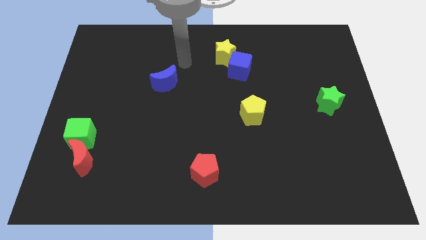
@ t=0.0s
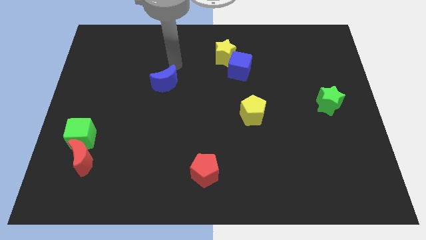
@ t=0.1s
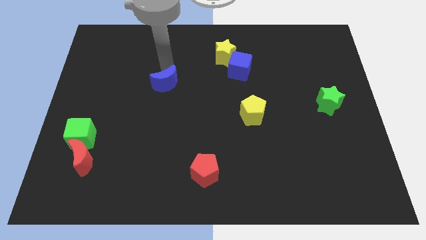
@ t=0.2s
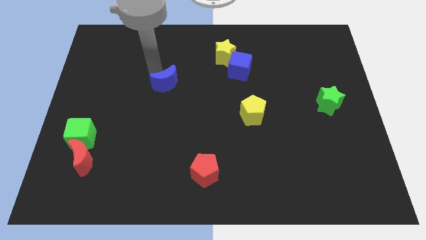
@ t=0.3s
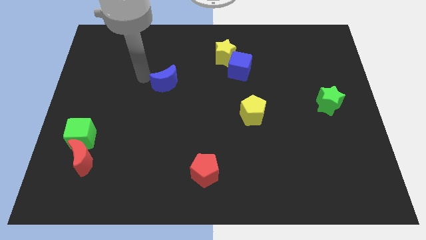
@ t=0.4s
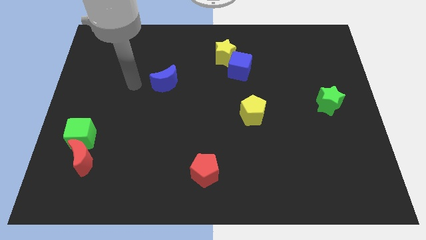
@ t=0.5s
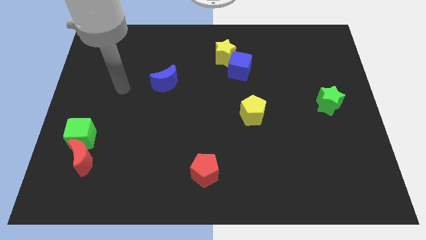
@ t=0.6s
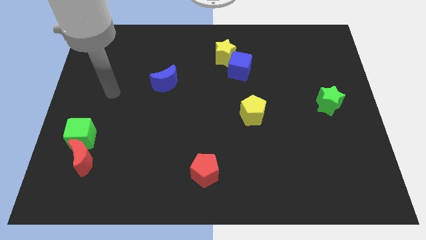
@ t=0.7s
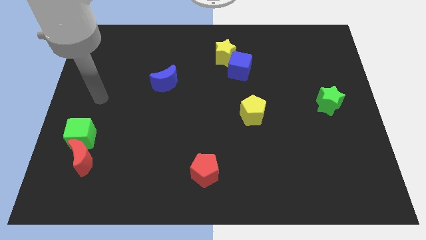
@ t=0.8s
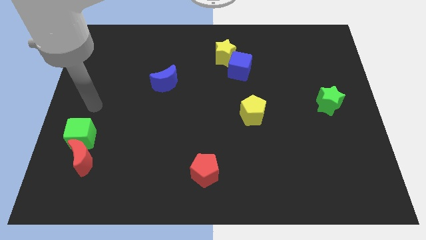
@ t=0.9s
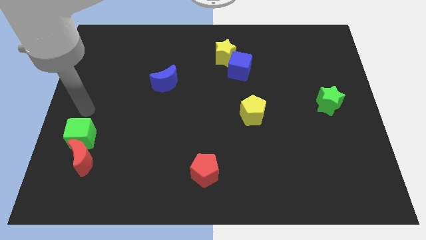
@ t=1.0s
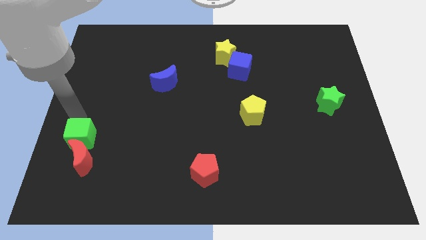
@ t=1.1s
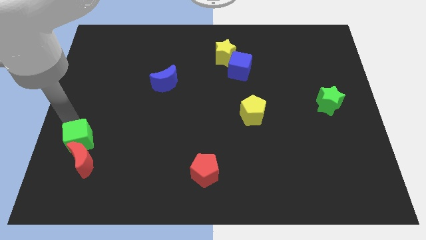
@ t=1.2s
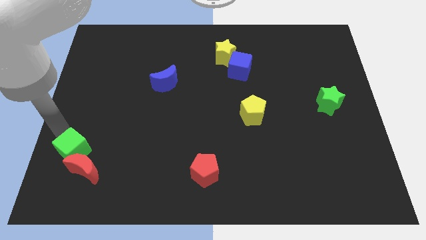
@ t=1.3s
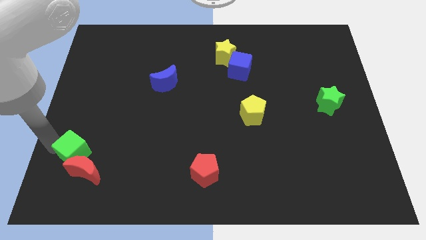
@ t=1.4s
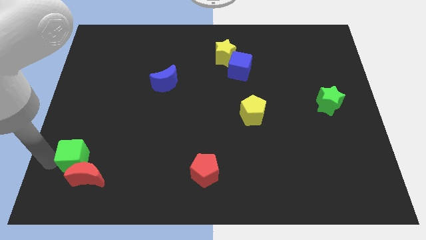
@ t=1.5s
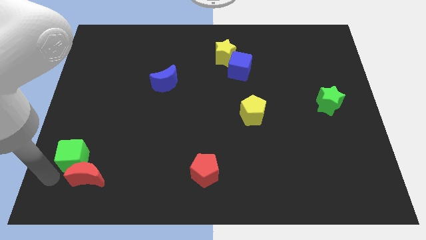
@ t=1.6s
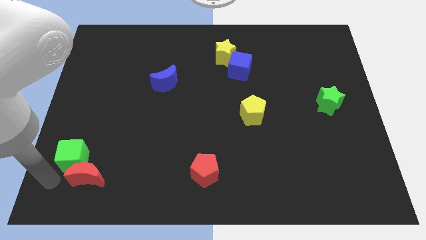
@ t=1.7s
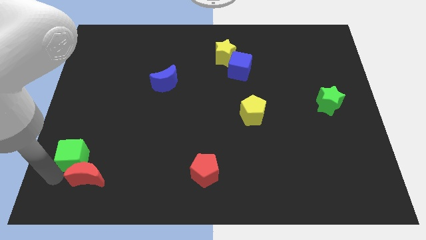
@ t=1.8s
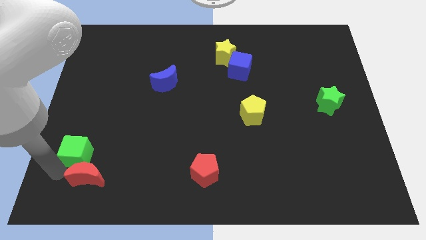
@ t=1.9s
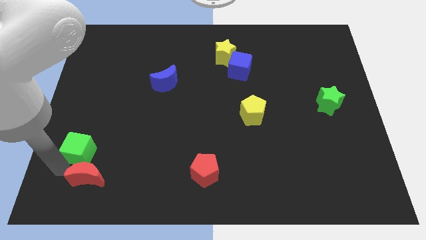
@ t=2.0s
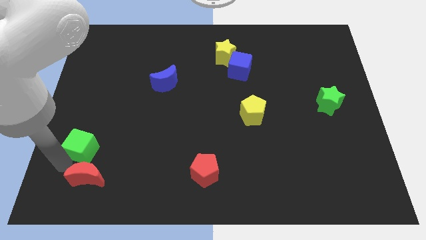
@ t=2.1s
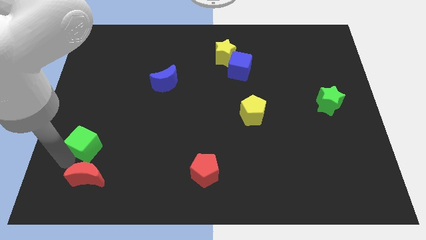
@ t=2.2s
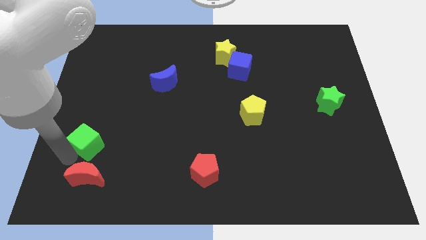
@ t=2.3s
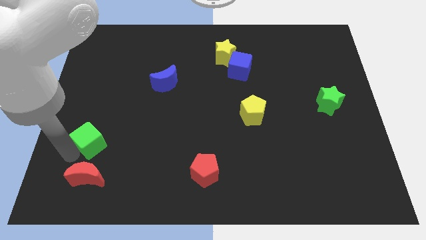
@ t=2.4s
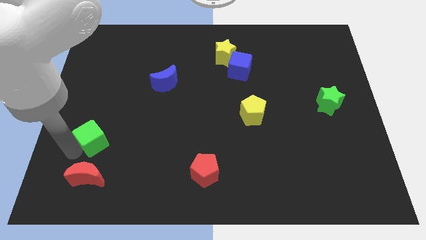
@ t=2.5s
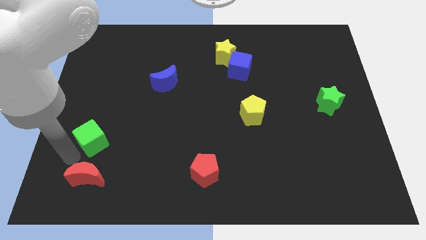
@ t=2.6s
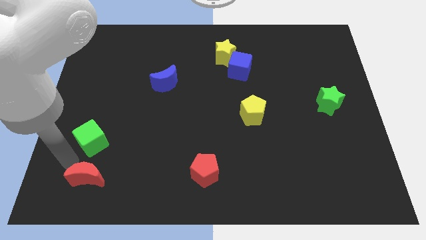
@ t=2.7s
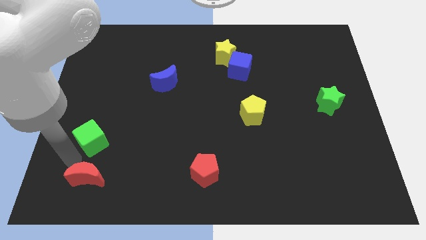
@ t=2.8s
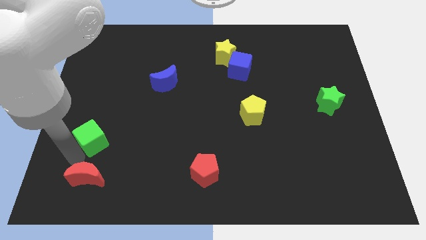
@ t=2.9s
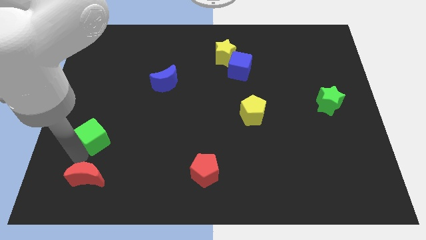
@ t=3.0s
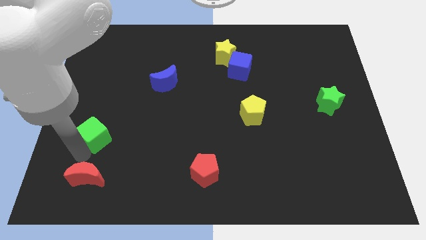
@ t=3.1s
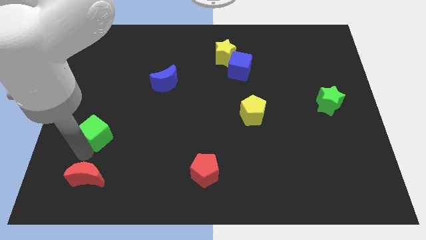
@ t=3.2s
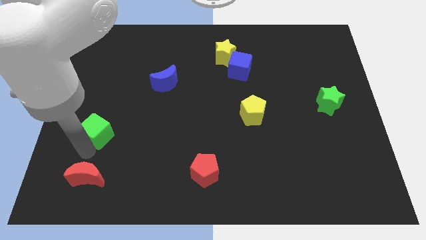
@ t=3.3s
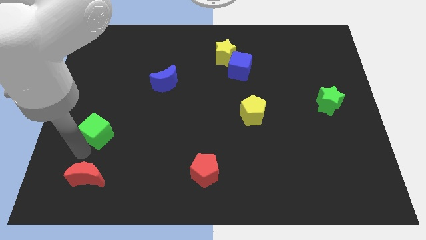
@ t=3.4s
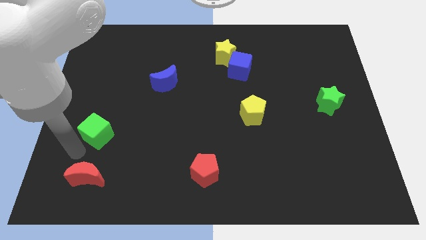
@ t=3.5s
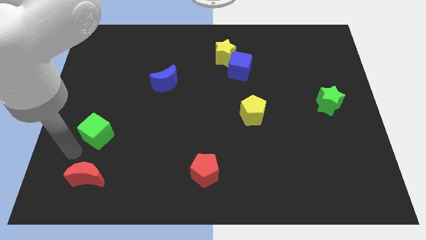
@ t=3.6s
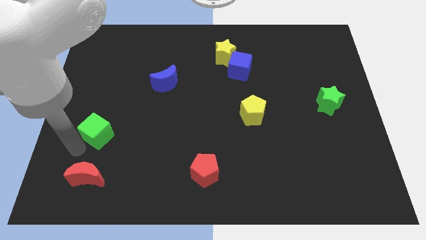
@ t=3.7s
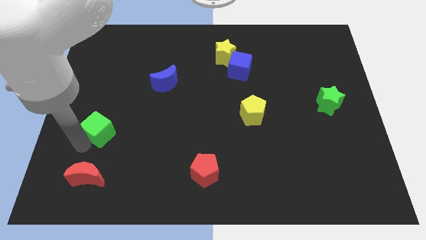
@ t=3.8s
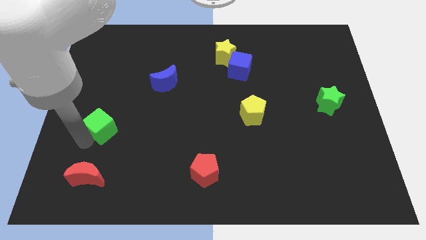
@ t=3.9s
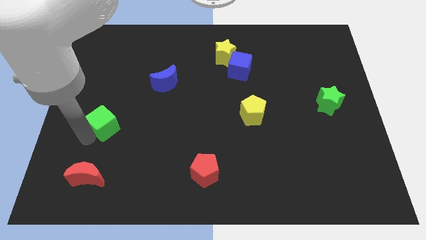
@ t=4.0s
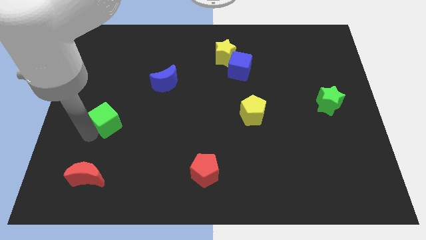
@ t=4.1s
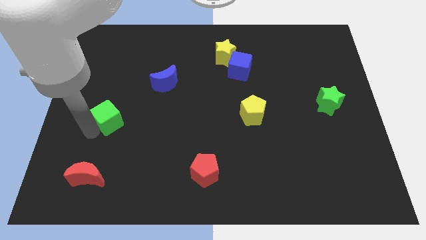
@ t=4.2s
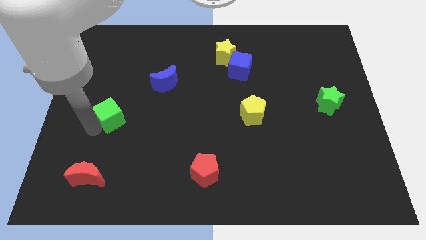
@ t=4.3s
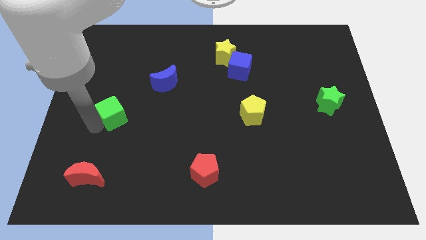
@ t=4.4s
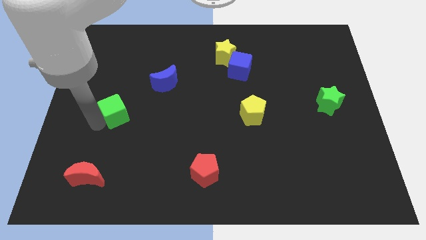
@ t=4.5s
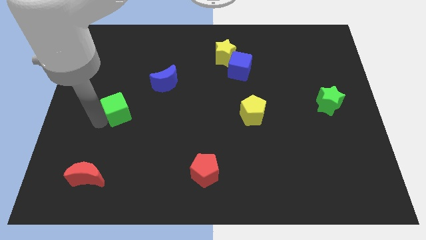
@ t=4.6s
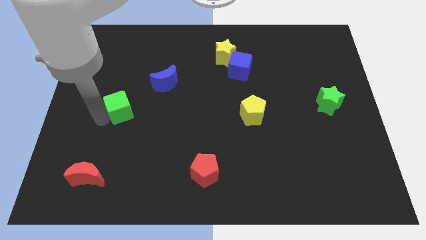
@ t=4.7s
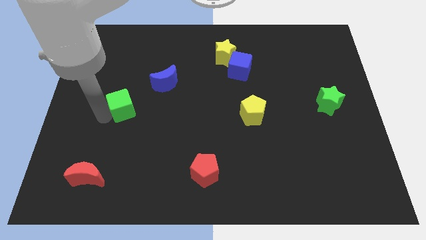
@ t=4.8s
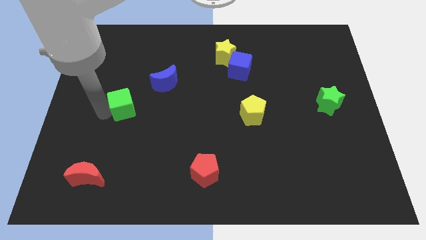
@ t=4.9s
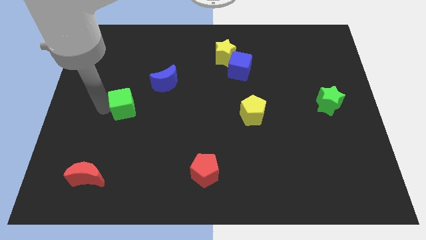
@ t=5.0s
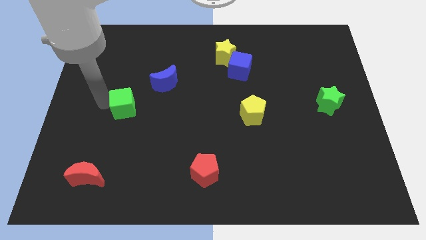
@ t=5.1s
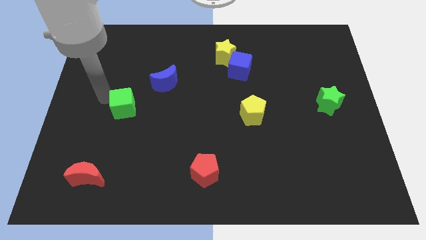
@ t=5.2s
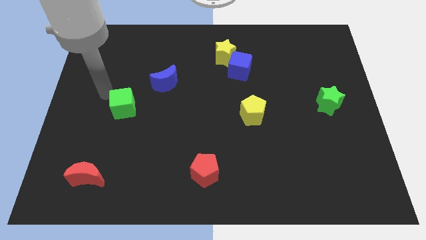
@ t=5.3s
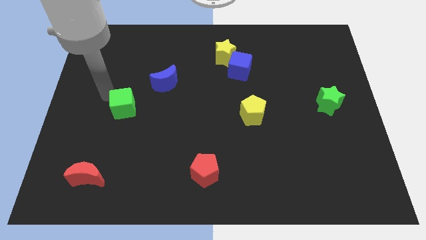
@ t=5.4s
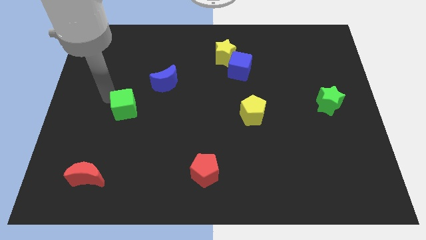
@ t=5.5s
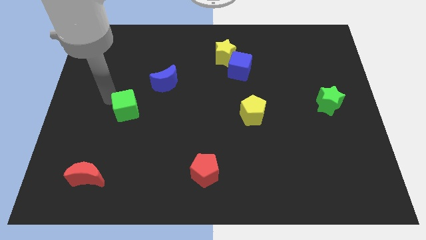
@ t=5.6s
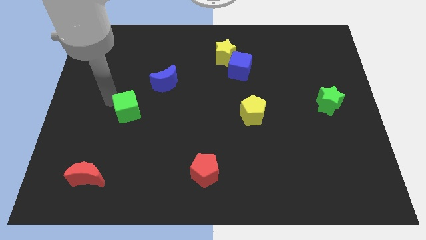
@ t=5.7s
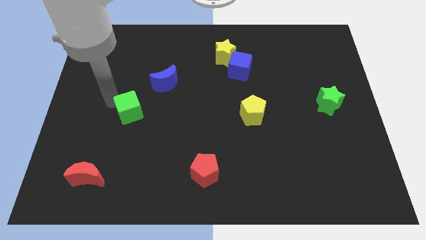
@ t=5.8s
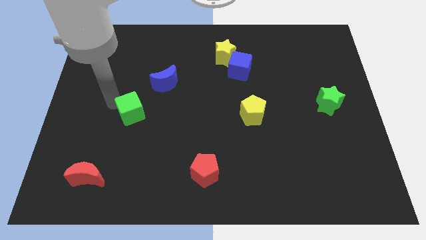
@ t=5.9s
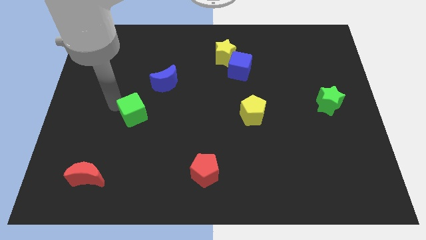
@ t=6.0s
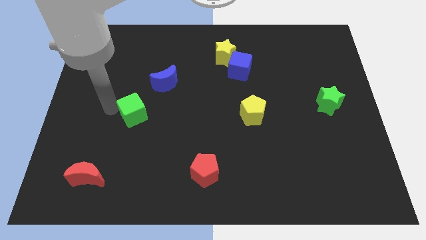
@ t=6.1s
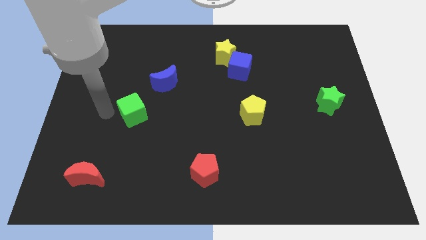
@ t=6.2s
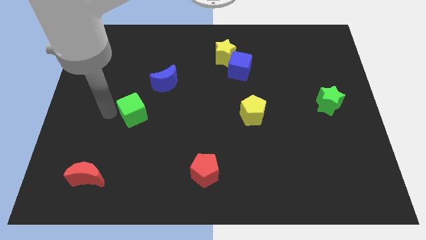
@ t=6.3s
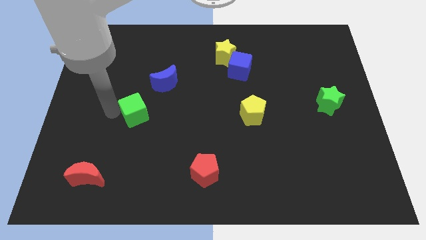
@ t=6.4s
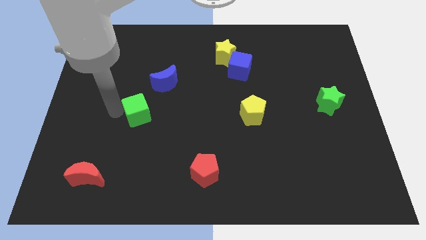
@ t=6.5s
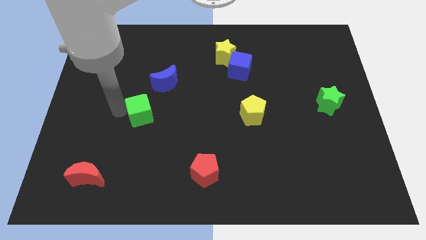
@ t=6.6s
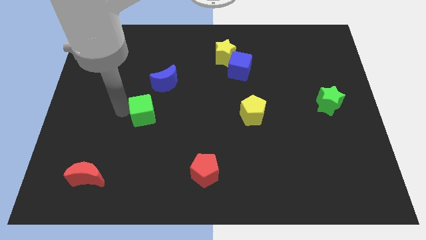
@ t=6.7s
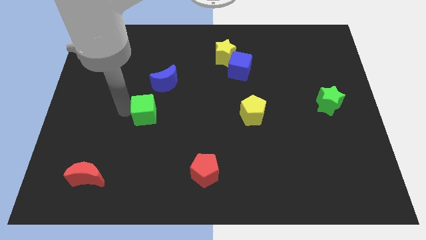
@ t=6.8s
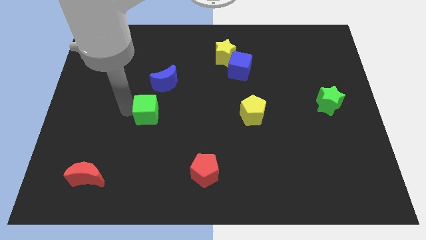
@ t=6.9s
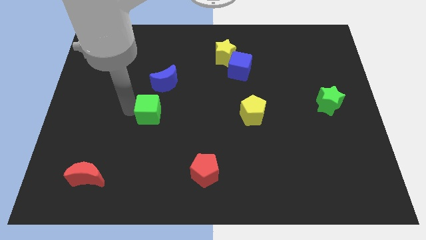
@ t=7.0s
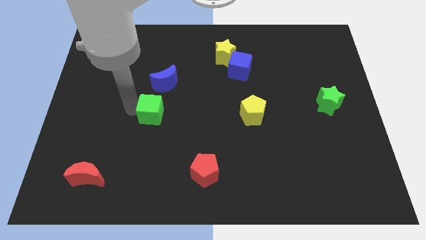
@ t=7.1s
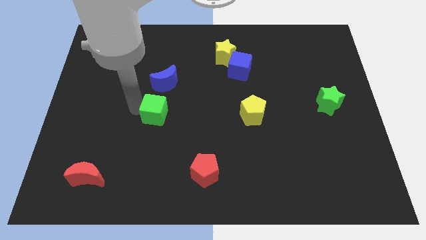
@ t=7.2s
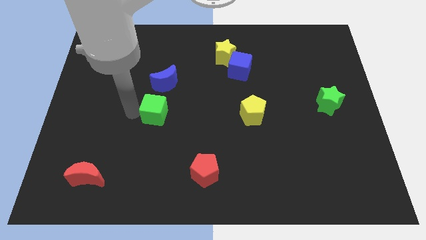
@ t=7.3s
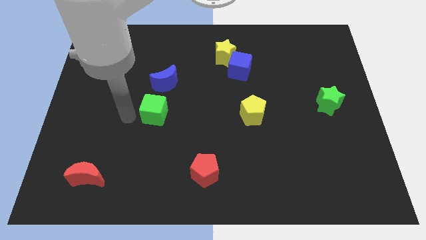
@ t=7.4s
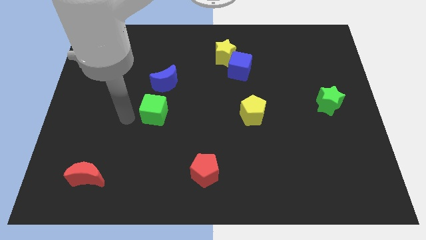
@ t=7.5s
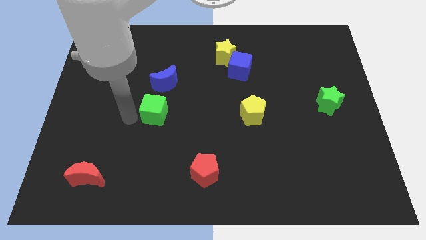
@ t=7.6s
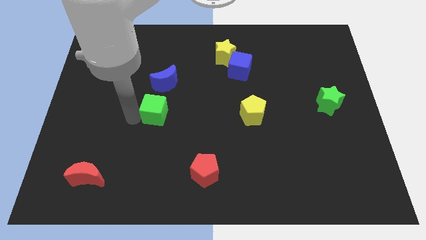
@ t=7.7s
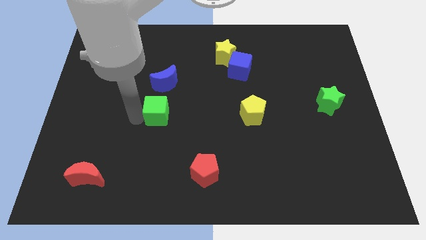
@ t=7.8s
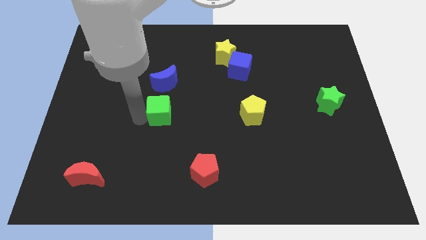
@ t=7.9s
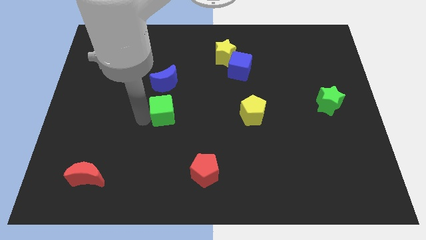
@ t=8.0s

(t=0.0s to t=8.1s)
slide the green cube to the middle of the board
